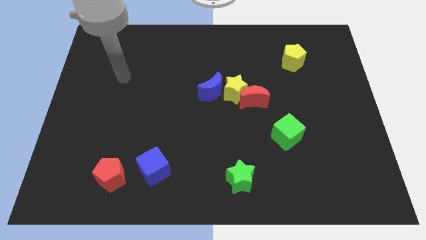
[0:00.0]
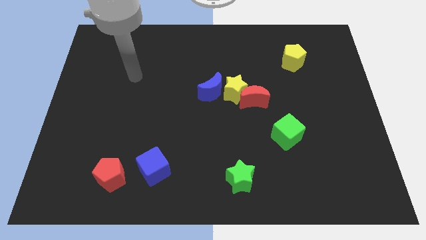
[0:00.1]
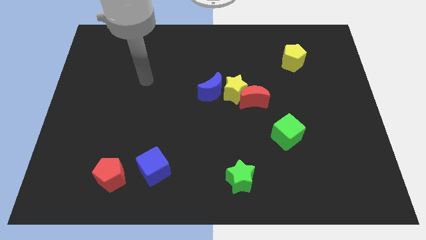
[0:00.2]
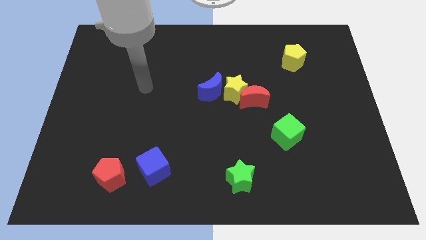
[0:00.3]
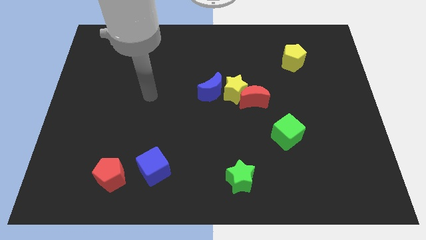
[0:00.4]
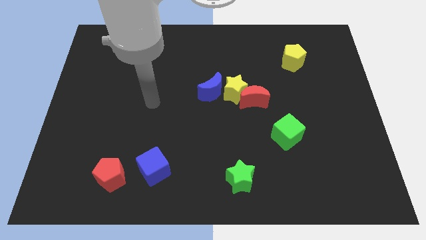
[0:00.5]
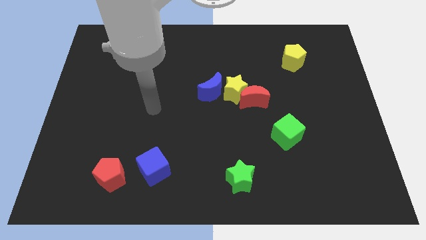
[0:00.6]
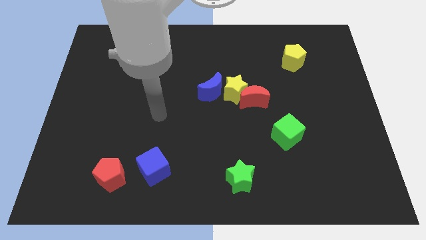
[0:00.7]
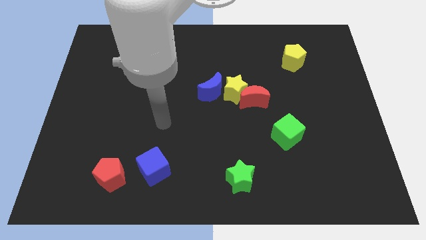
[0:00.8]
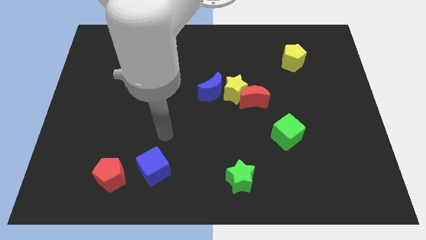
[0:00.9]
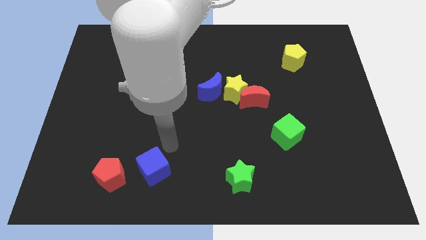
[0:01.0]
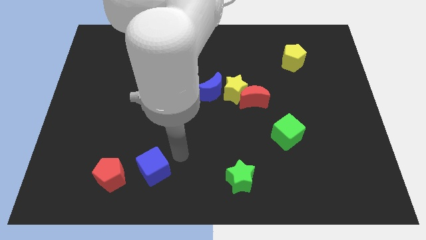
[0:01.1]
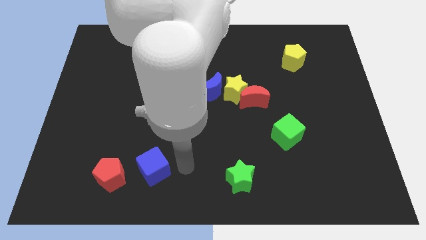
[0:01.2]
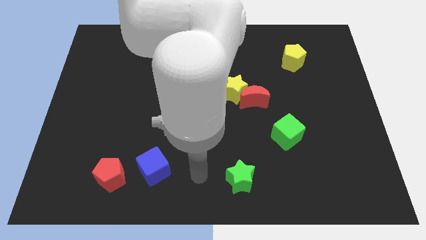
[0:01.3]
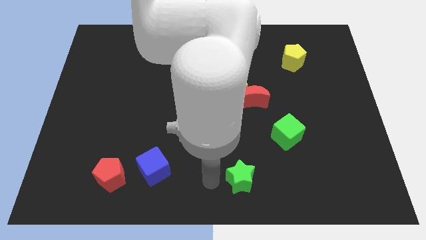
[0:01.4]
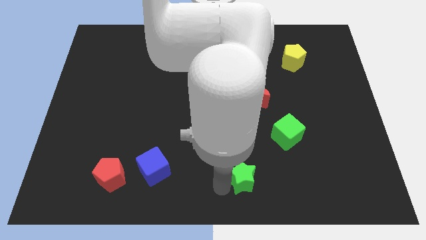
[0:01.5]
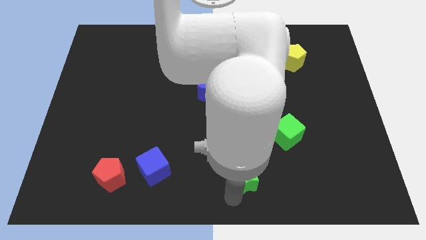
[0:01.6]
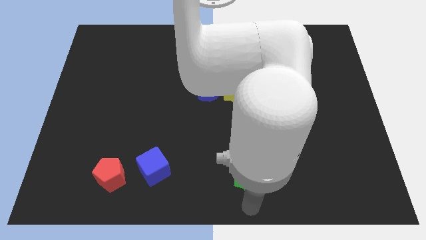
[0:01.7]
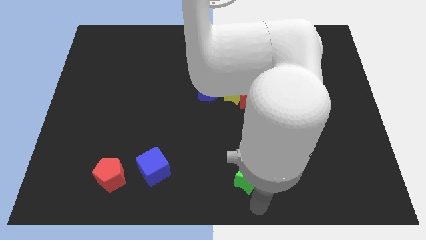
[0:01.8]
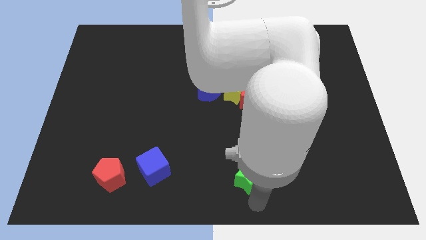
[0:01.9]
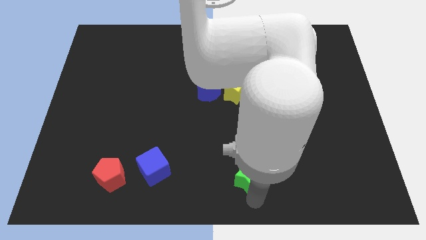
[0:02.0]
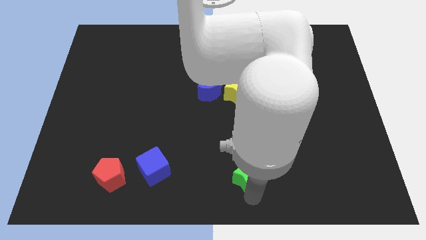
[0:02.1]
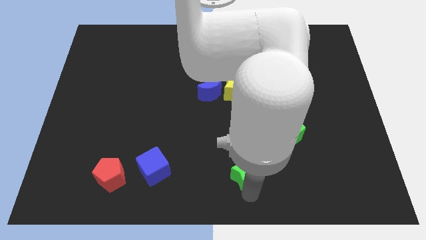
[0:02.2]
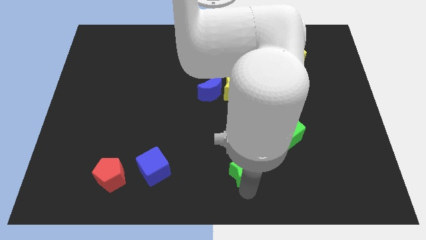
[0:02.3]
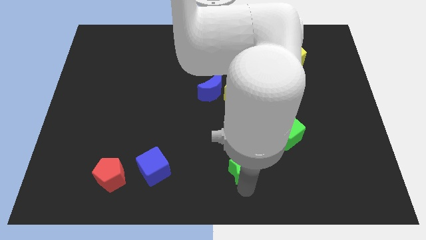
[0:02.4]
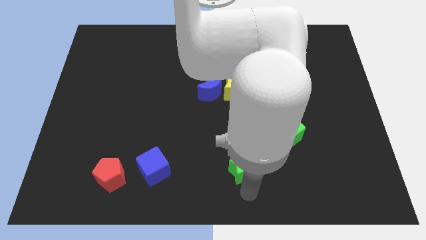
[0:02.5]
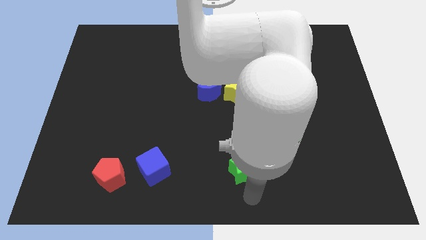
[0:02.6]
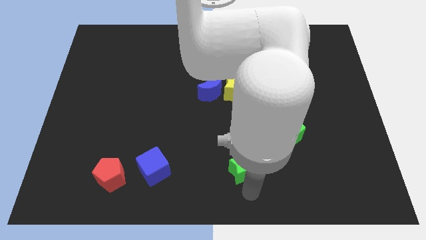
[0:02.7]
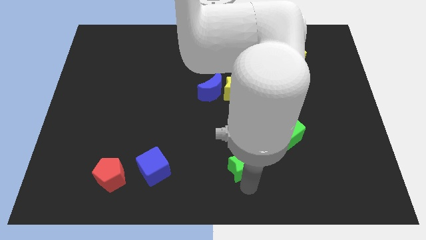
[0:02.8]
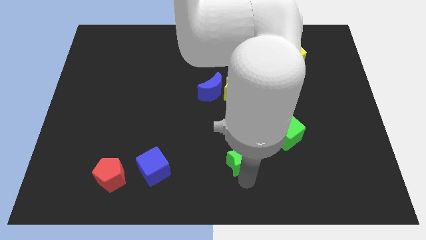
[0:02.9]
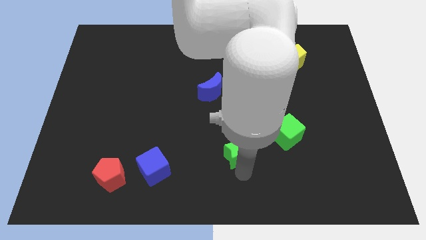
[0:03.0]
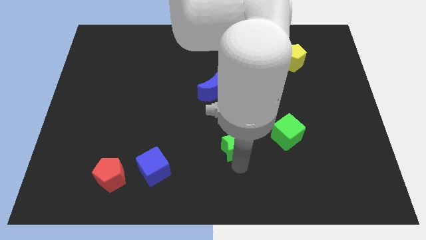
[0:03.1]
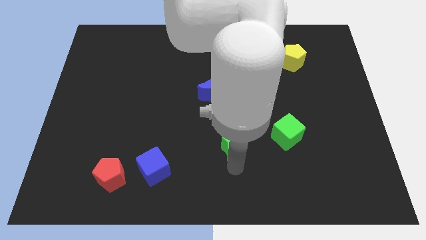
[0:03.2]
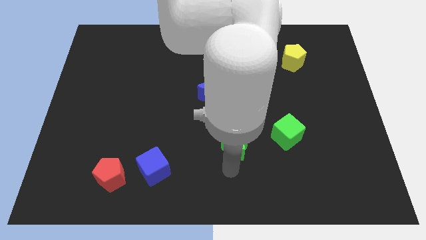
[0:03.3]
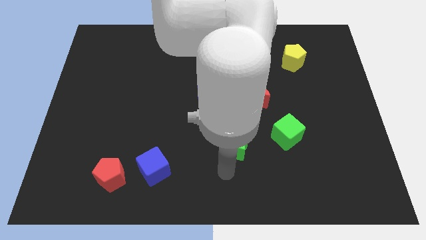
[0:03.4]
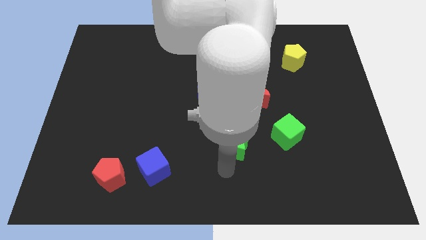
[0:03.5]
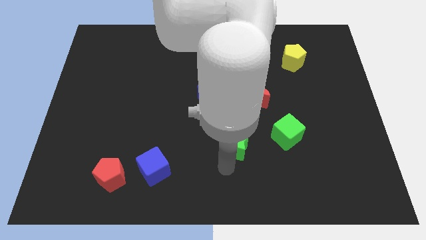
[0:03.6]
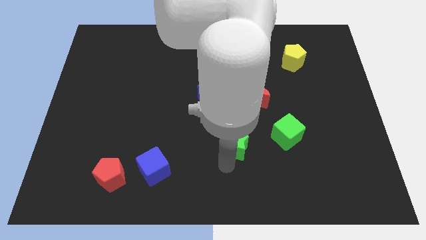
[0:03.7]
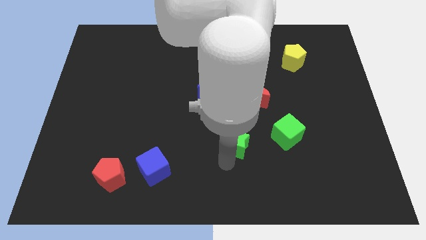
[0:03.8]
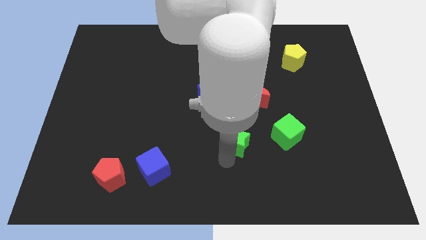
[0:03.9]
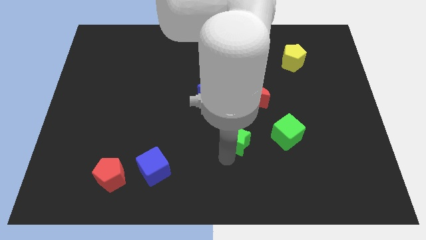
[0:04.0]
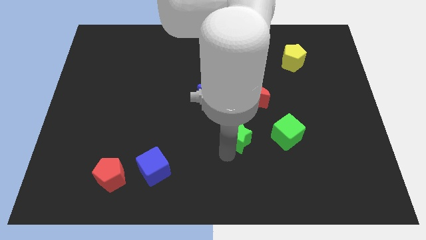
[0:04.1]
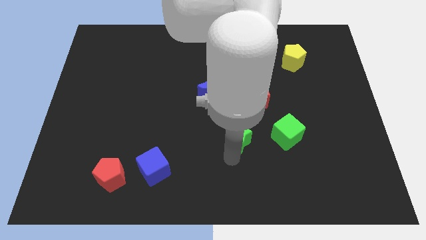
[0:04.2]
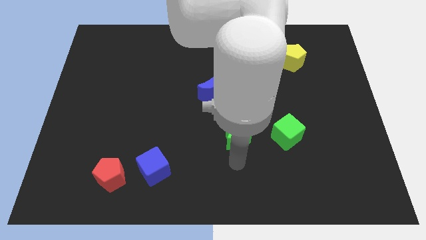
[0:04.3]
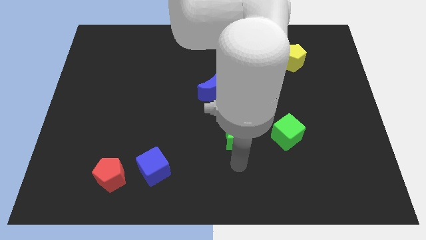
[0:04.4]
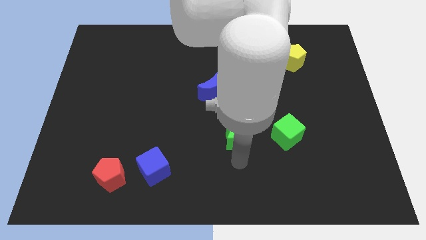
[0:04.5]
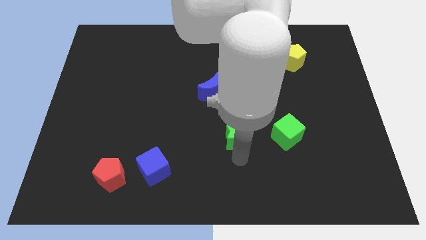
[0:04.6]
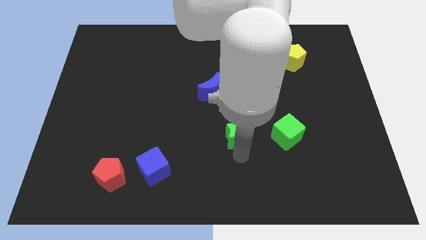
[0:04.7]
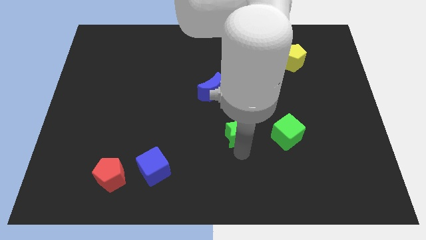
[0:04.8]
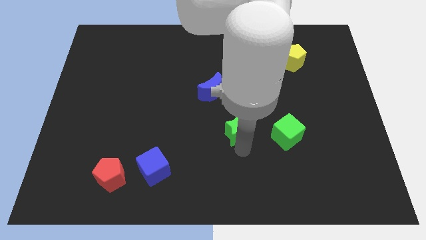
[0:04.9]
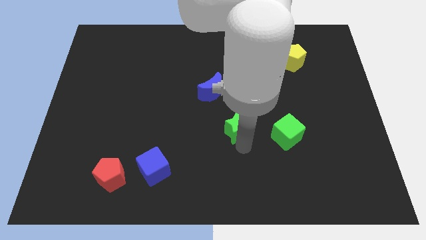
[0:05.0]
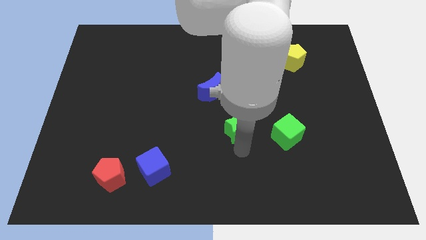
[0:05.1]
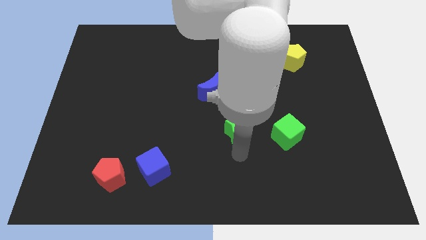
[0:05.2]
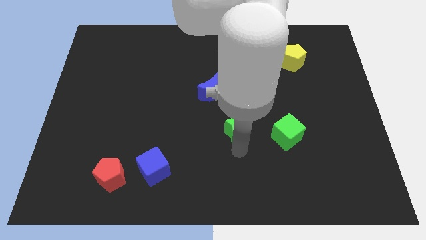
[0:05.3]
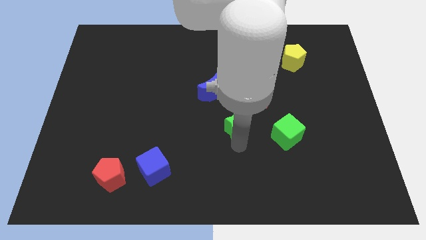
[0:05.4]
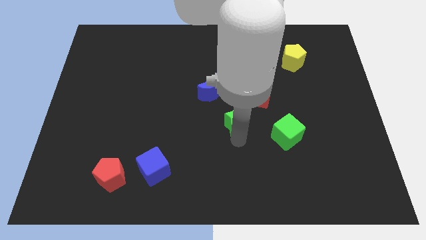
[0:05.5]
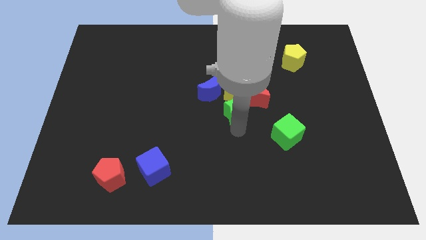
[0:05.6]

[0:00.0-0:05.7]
slide the green star next to the yellow star

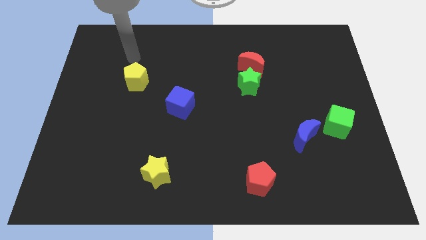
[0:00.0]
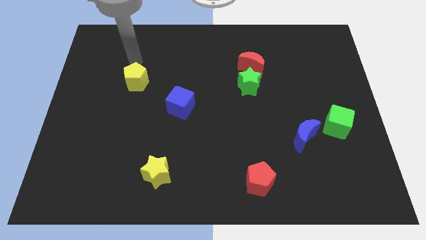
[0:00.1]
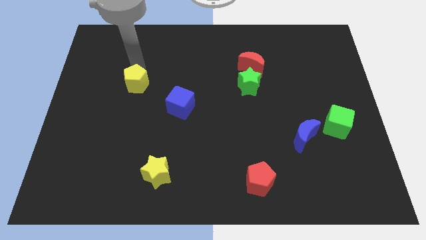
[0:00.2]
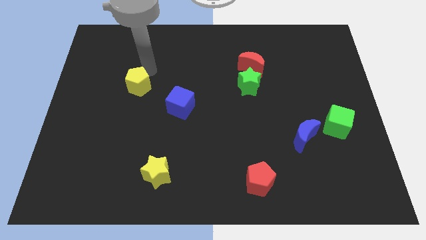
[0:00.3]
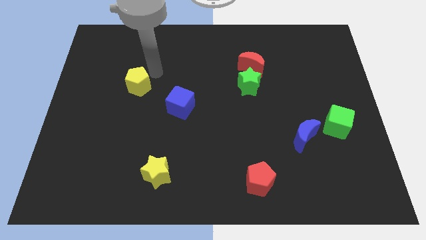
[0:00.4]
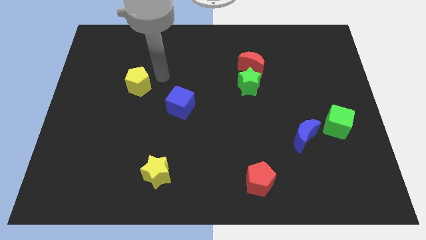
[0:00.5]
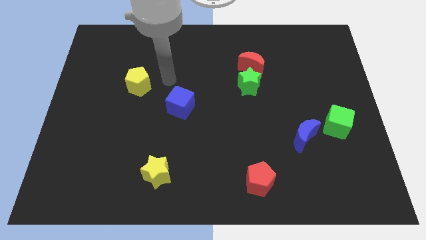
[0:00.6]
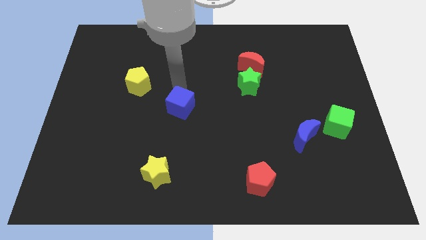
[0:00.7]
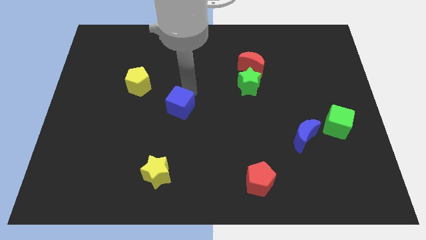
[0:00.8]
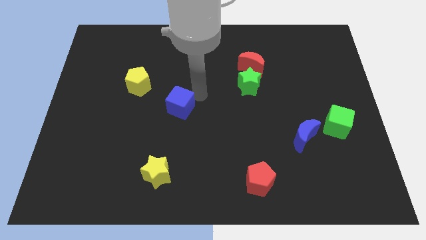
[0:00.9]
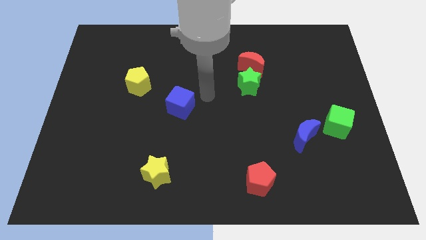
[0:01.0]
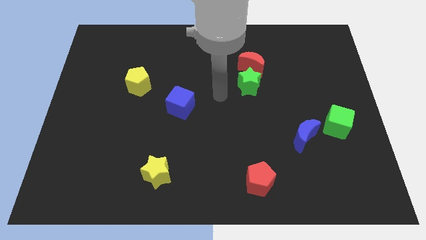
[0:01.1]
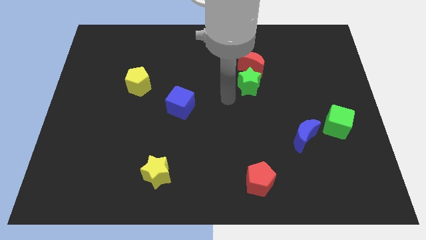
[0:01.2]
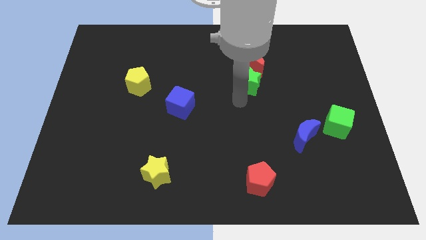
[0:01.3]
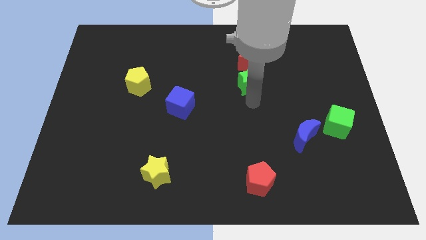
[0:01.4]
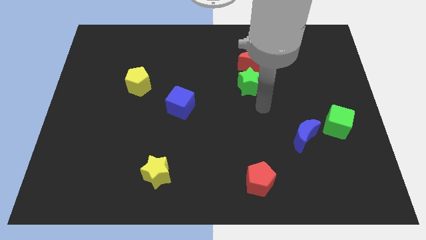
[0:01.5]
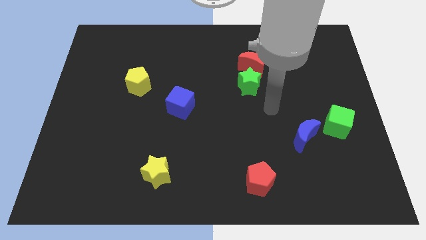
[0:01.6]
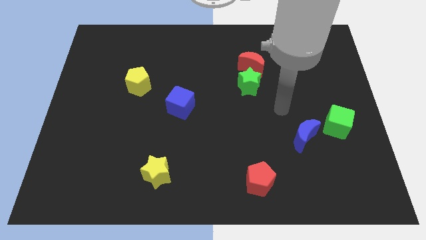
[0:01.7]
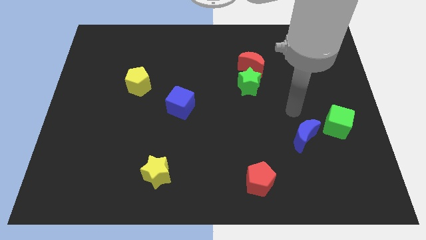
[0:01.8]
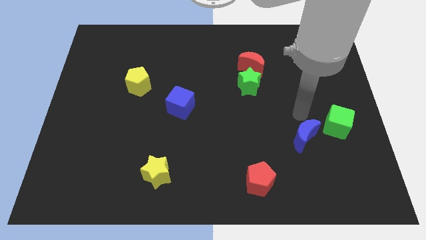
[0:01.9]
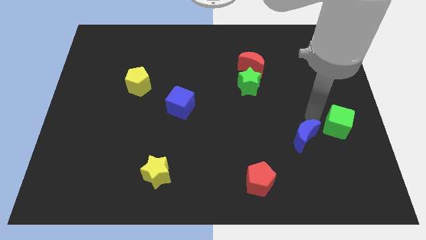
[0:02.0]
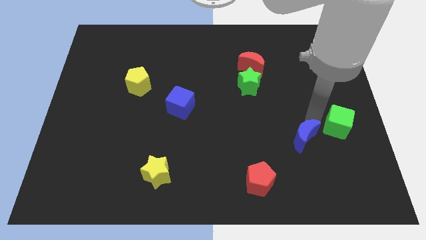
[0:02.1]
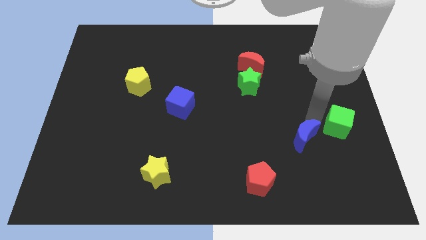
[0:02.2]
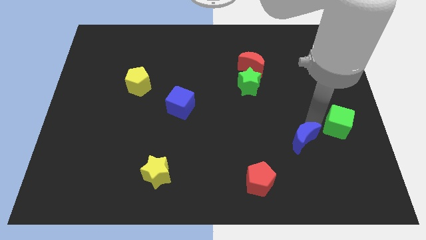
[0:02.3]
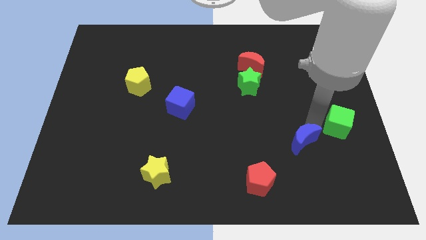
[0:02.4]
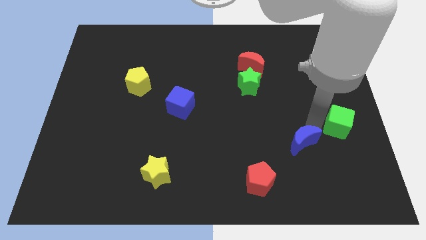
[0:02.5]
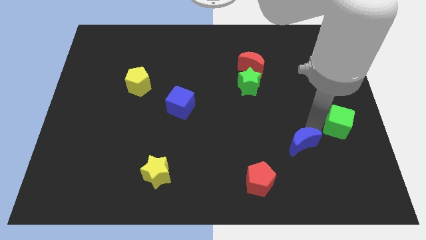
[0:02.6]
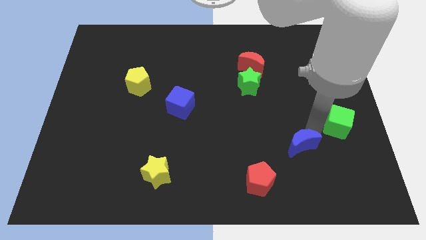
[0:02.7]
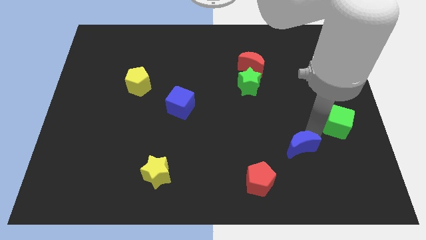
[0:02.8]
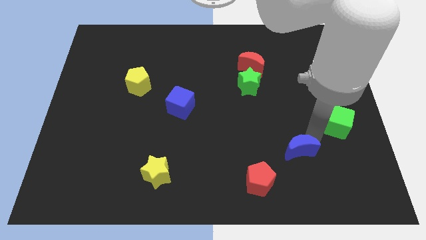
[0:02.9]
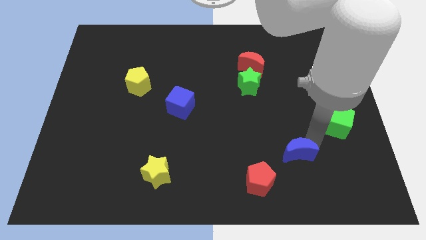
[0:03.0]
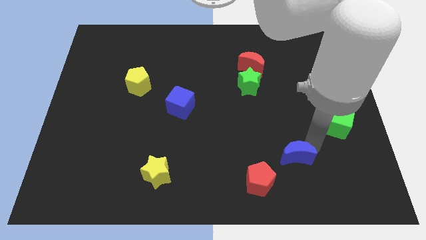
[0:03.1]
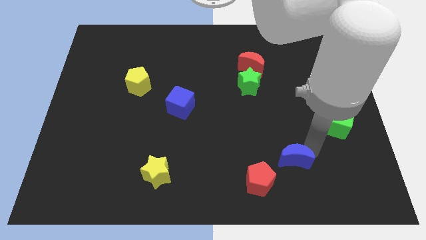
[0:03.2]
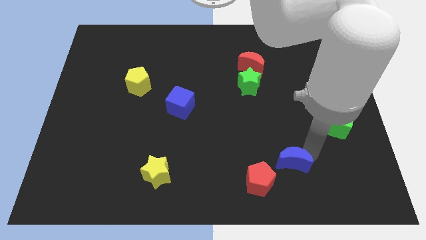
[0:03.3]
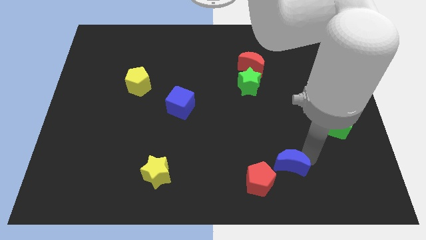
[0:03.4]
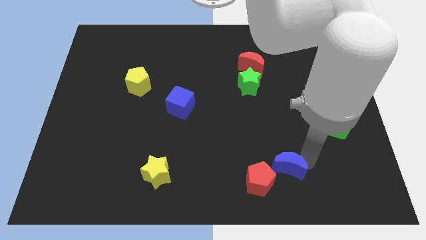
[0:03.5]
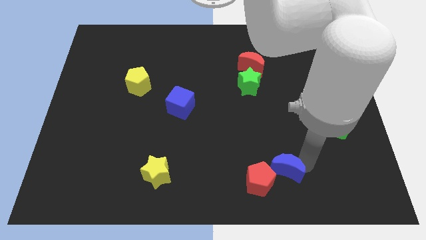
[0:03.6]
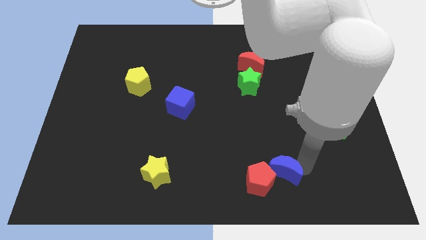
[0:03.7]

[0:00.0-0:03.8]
slide the blue moon next to the red pentagon
